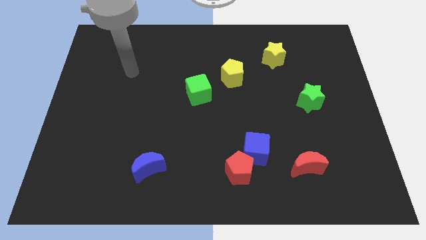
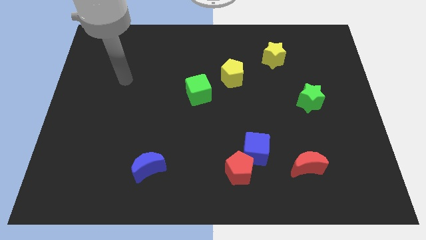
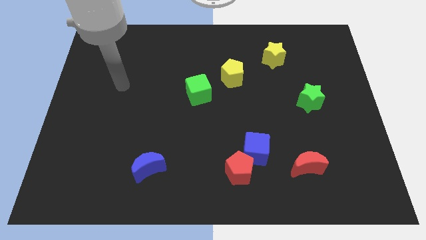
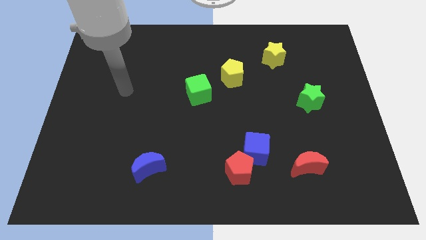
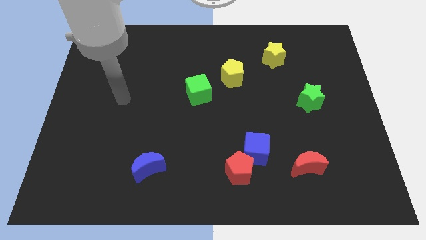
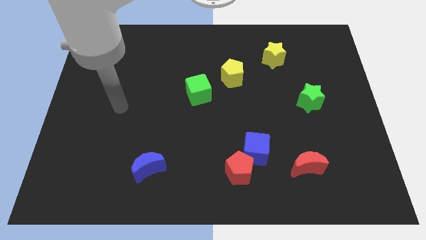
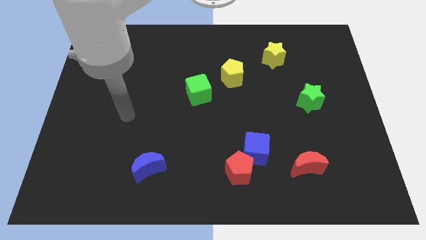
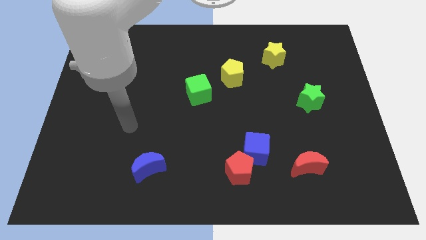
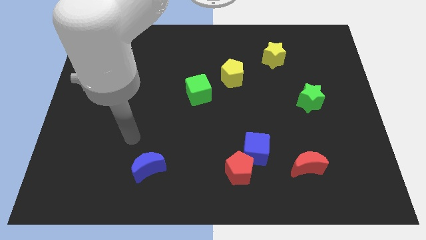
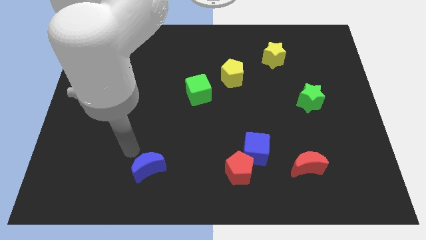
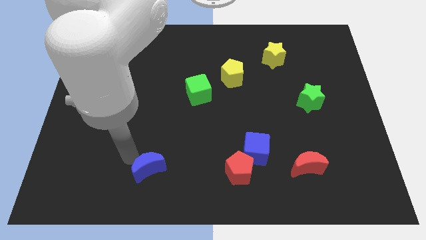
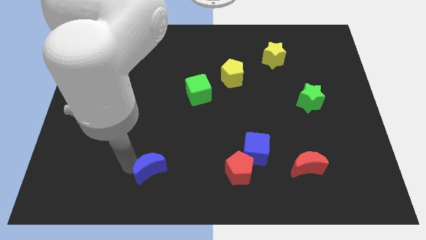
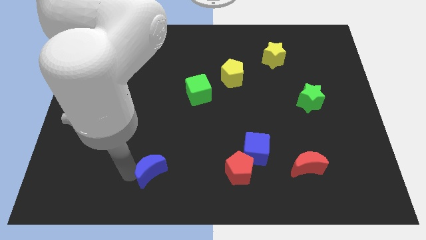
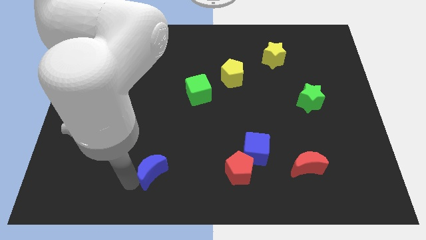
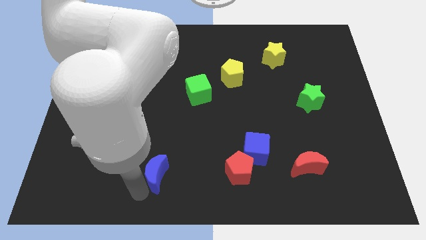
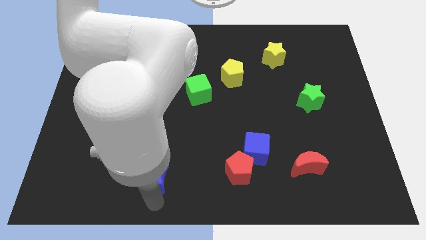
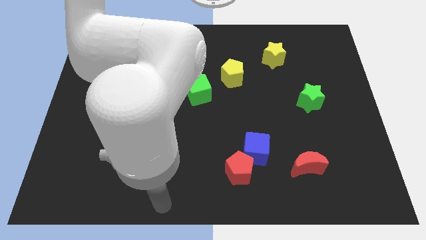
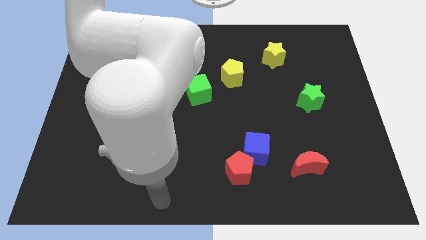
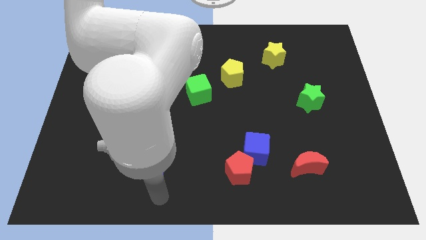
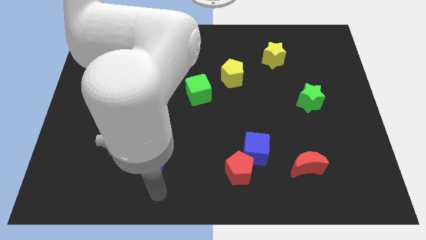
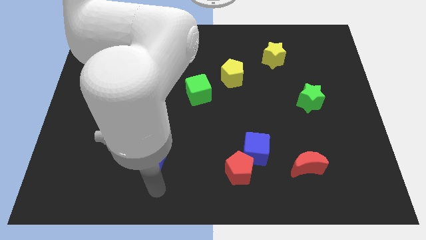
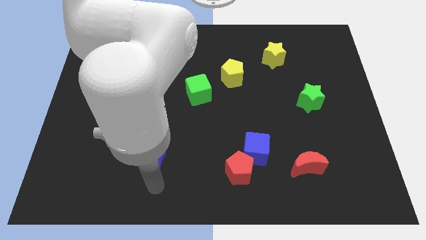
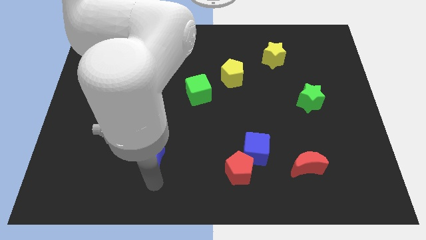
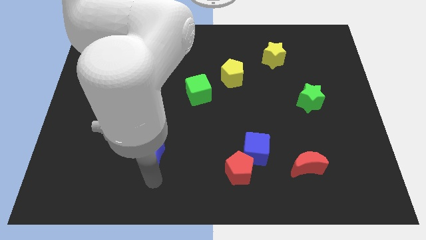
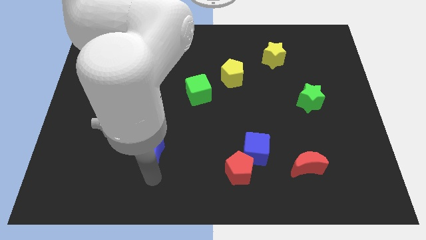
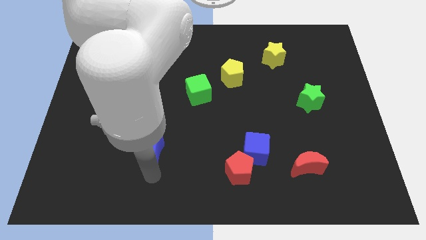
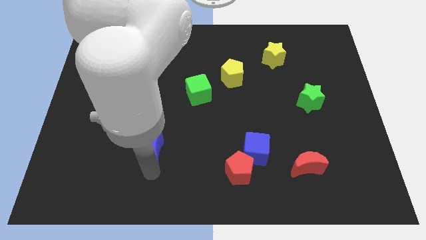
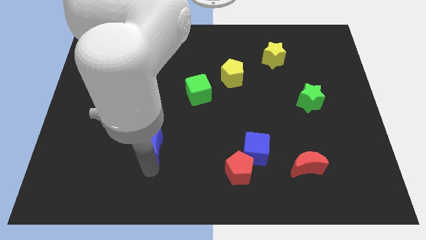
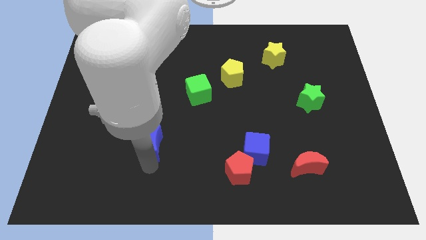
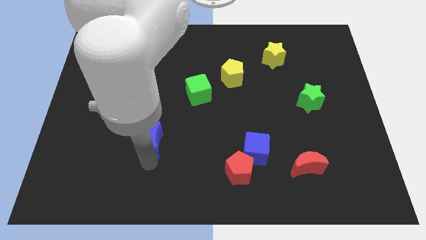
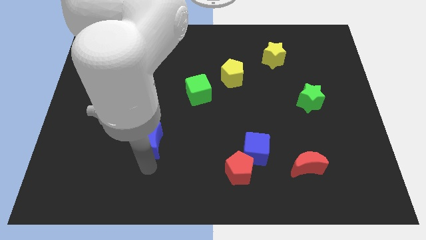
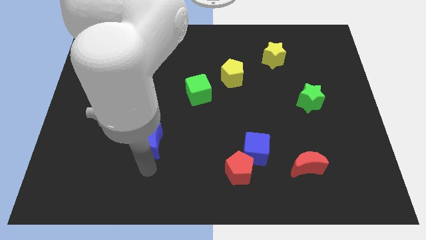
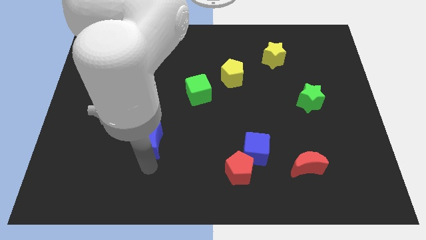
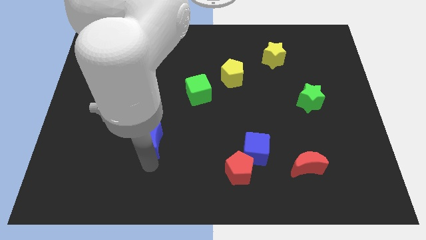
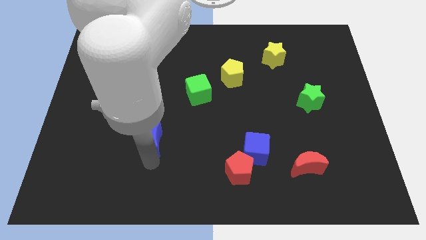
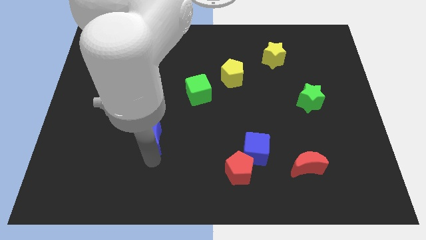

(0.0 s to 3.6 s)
push the blue moon up a bit

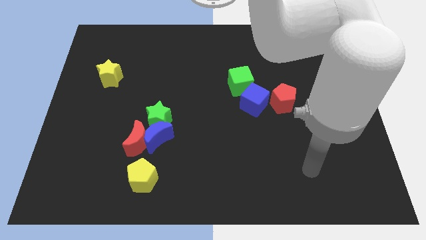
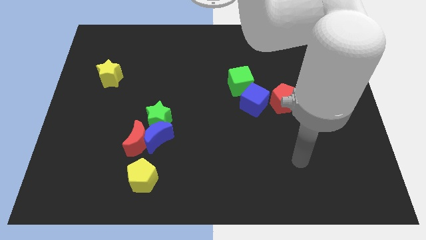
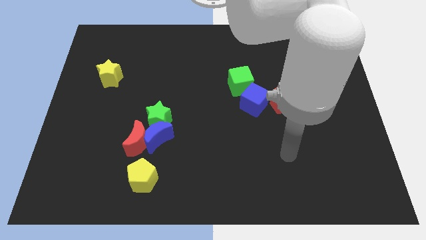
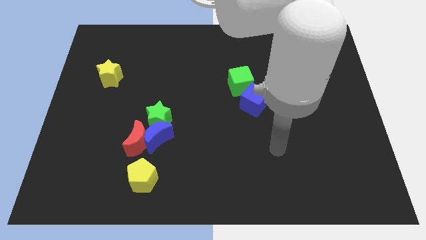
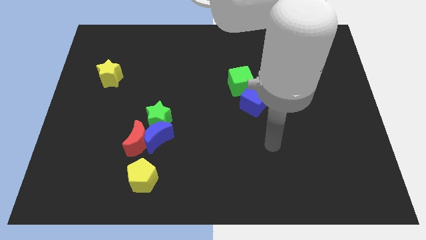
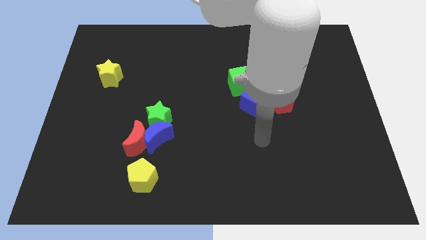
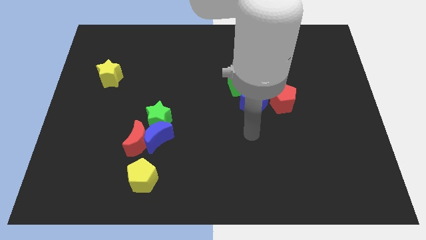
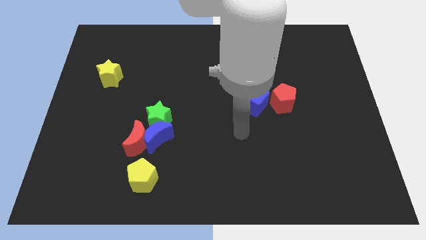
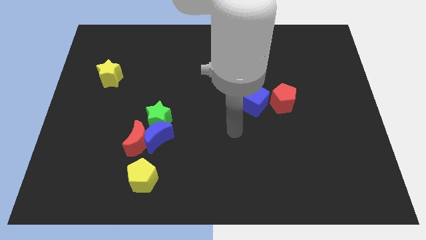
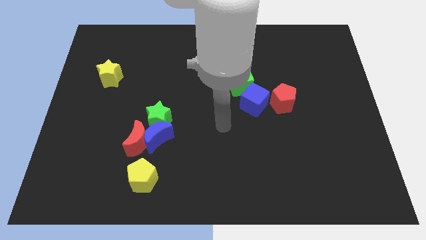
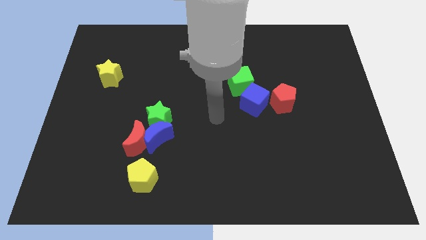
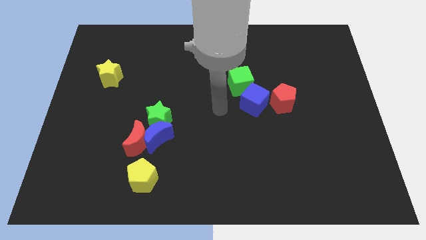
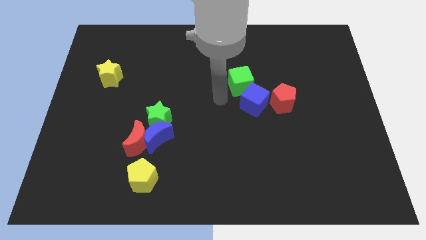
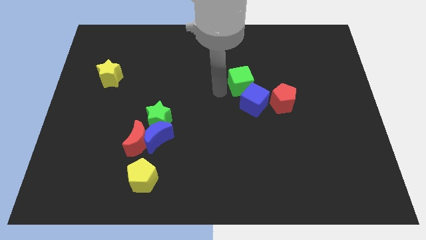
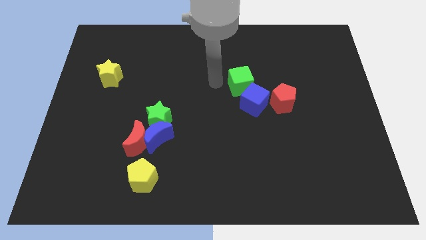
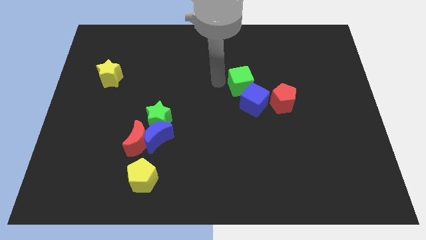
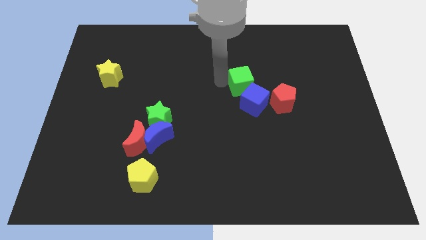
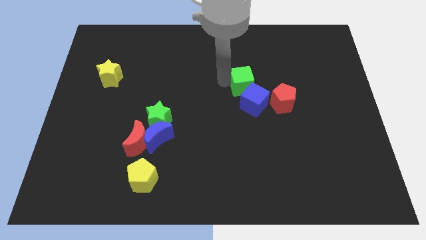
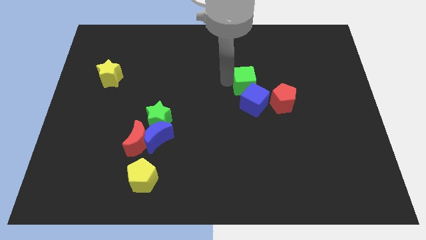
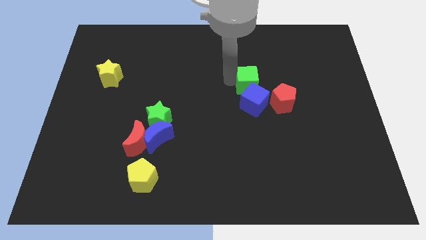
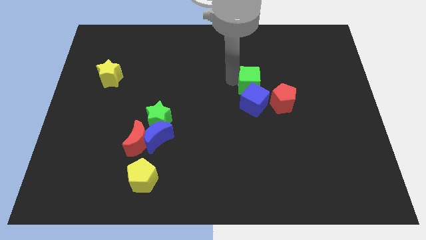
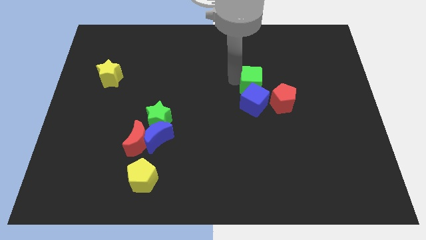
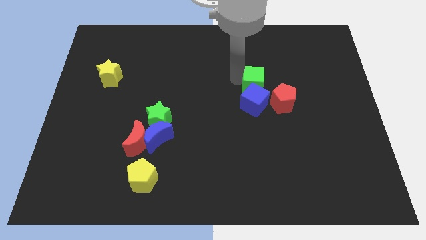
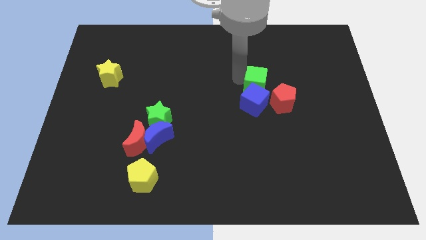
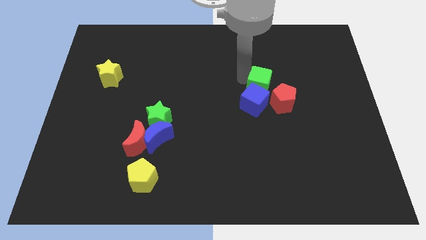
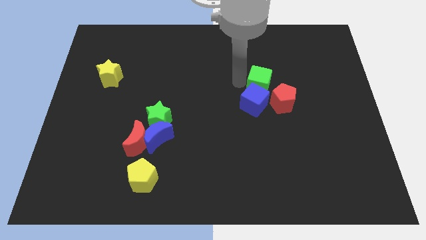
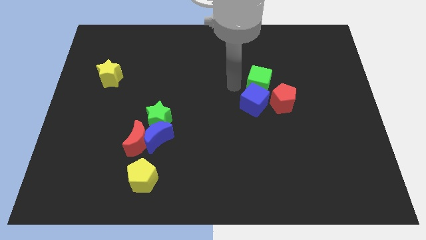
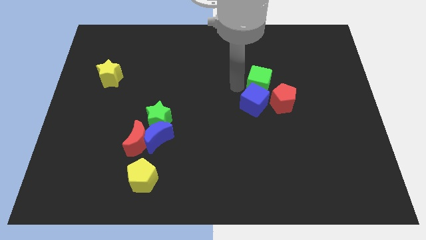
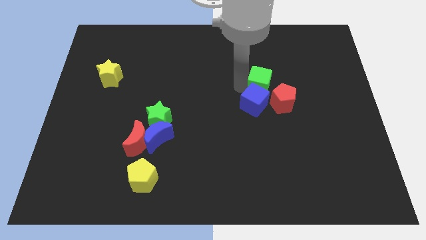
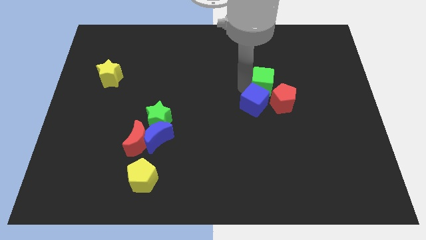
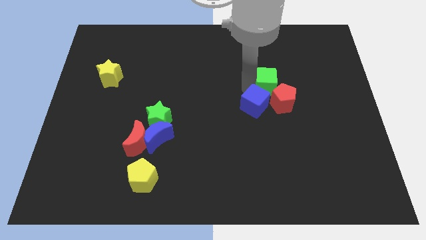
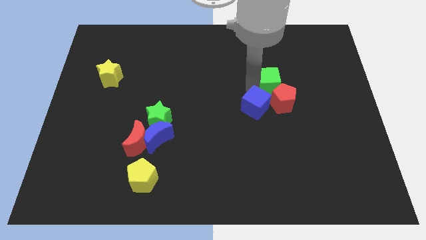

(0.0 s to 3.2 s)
push the green cube right a little bit

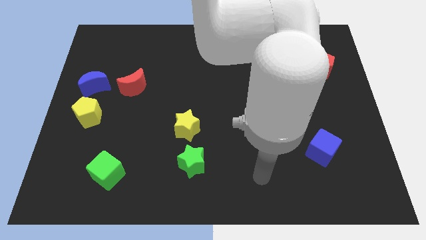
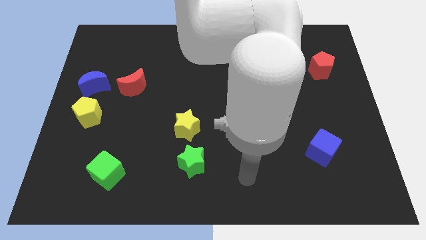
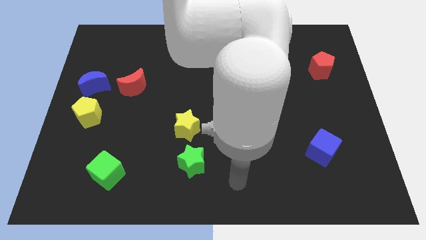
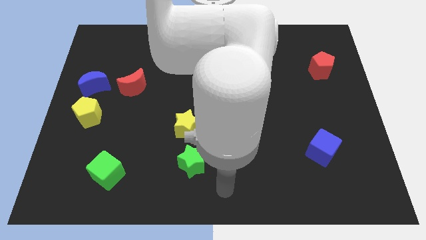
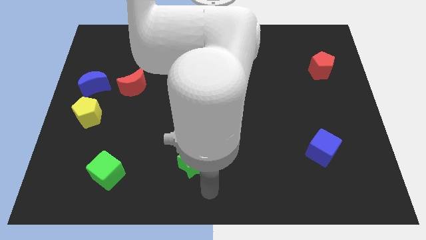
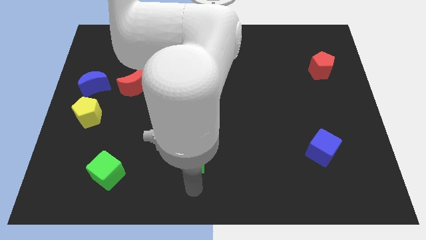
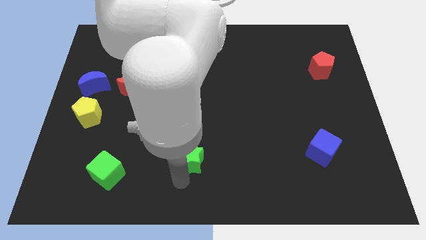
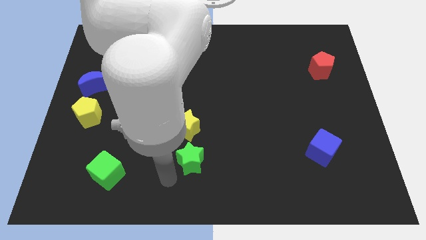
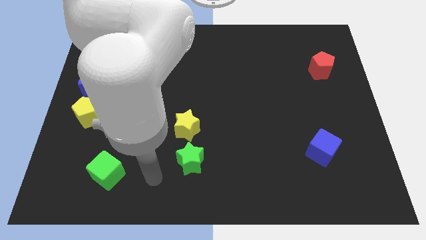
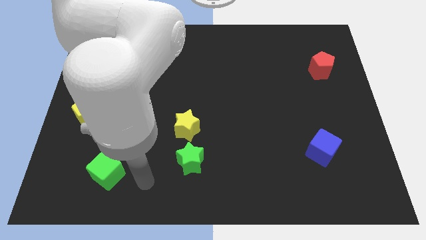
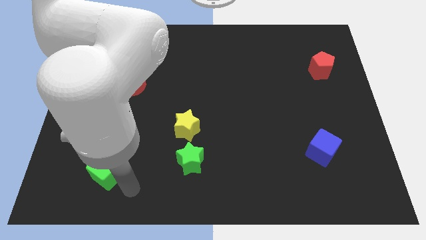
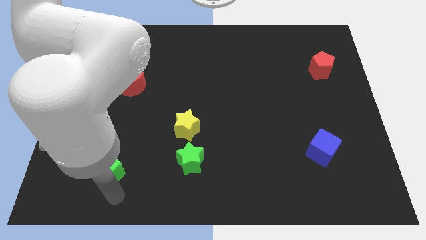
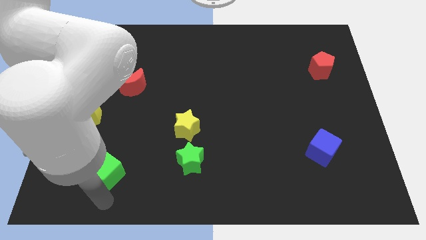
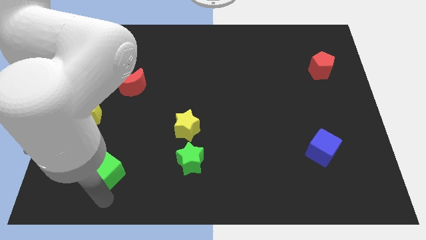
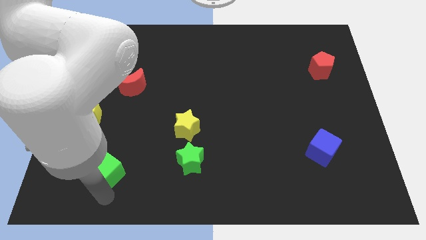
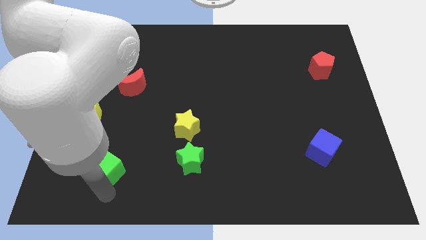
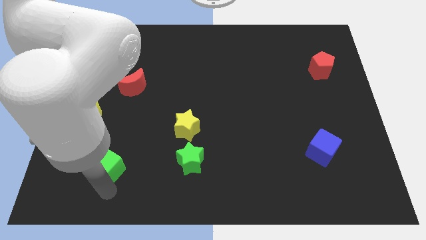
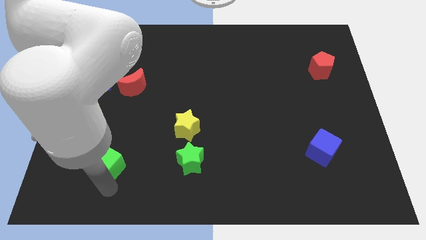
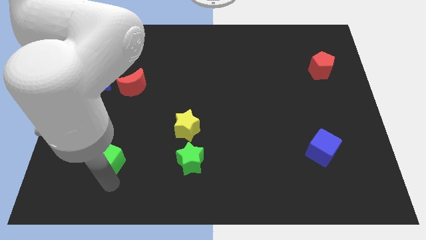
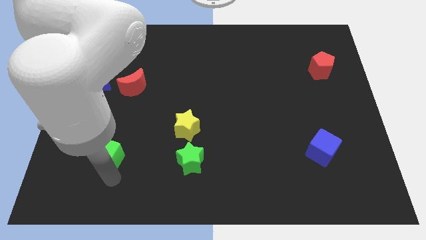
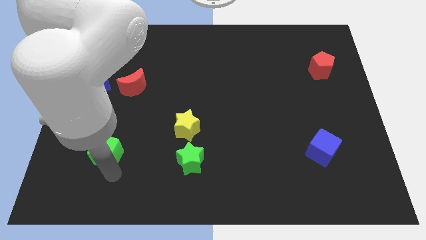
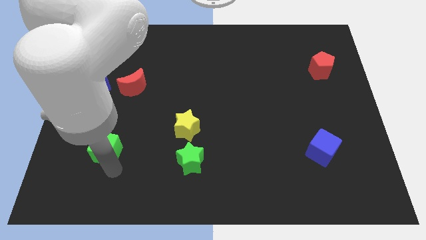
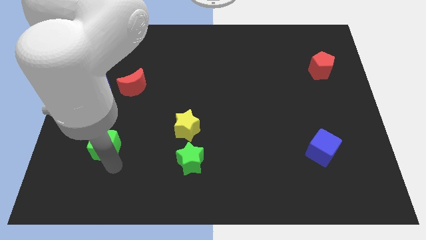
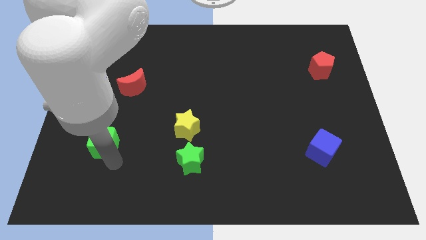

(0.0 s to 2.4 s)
move the green cube a little bit upwards
